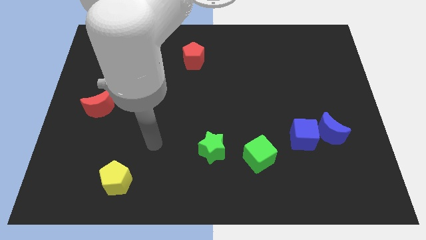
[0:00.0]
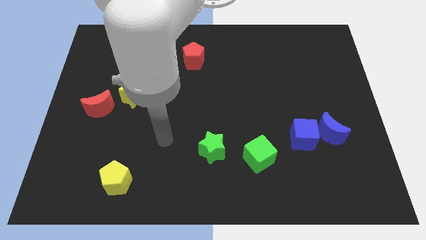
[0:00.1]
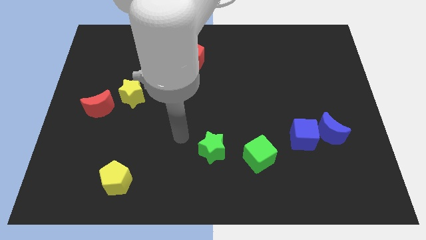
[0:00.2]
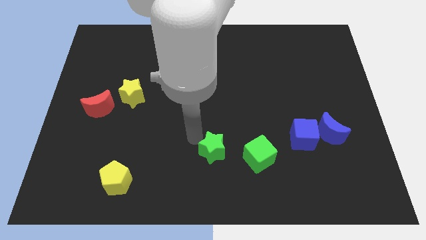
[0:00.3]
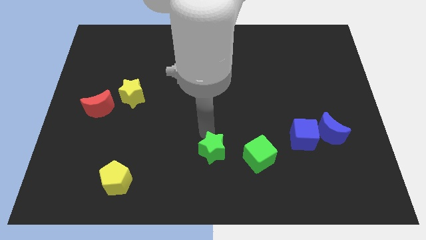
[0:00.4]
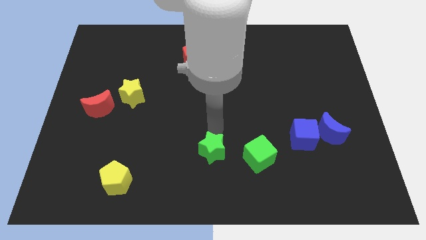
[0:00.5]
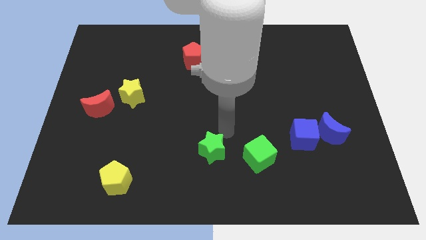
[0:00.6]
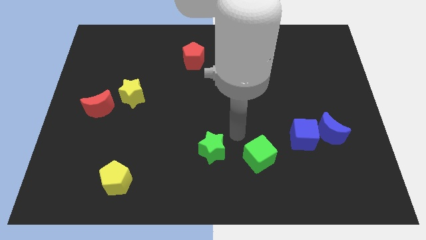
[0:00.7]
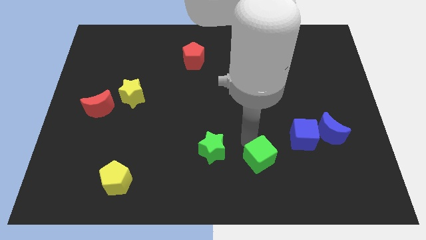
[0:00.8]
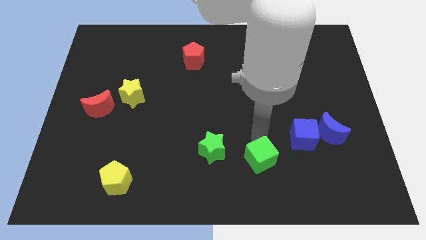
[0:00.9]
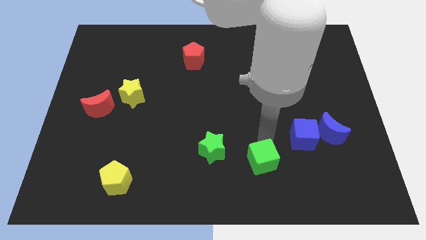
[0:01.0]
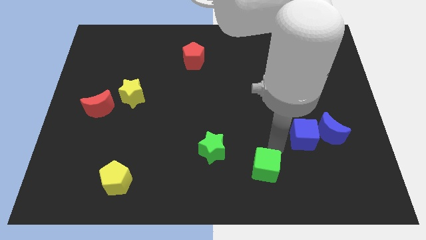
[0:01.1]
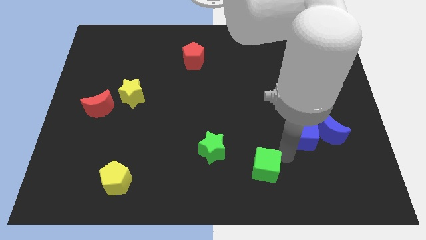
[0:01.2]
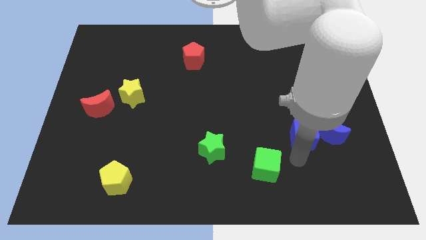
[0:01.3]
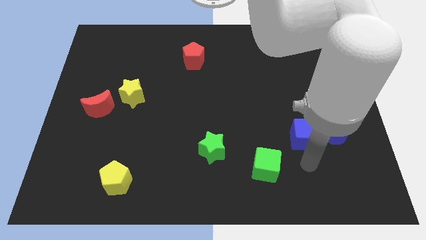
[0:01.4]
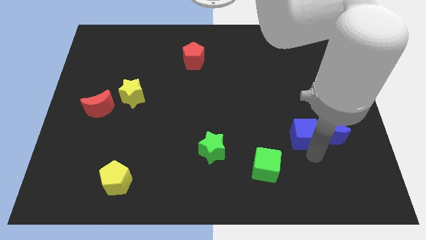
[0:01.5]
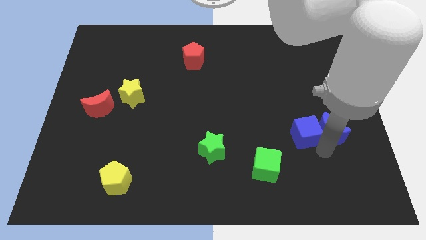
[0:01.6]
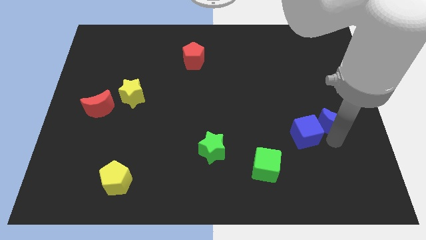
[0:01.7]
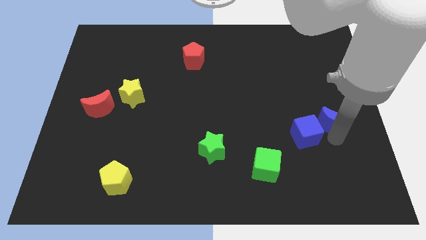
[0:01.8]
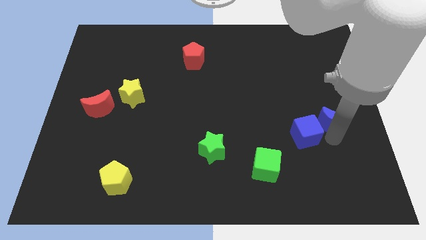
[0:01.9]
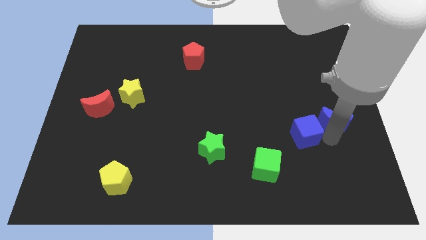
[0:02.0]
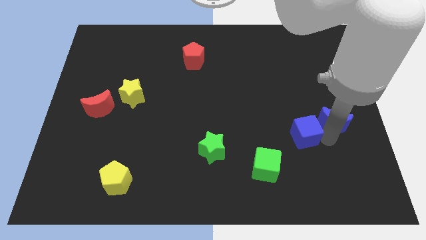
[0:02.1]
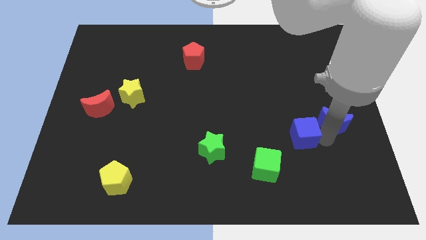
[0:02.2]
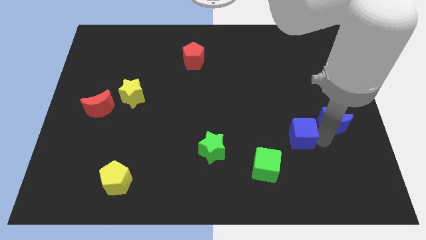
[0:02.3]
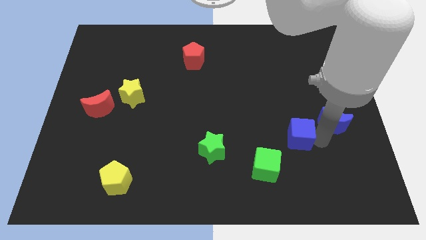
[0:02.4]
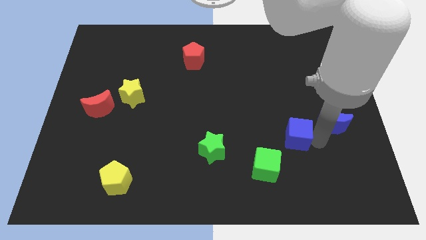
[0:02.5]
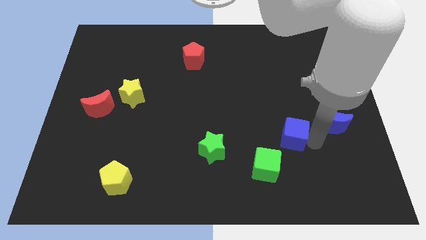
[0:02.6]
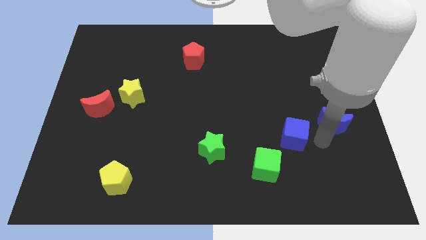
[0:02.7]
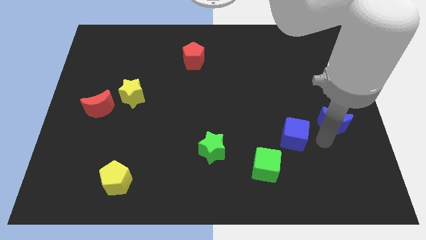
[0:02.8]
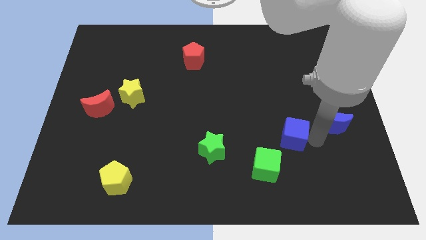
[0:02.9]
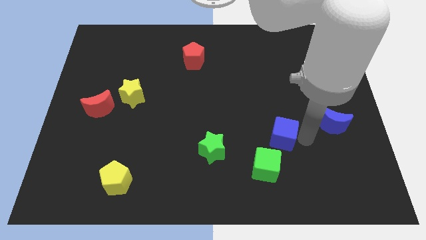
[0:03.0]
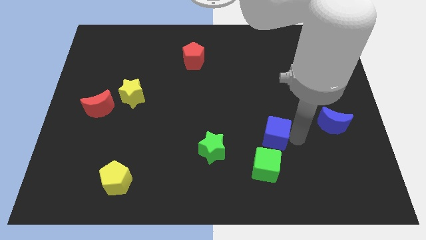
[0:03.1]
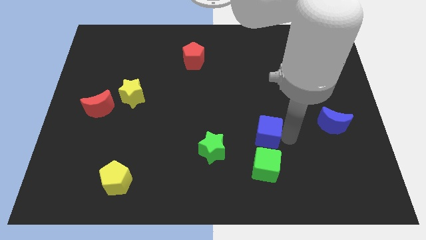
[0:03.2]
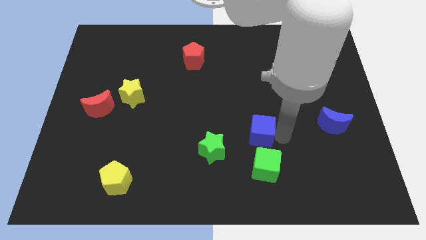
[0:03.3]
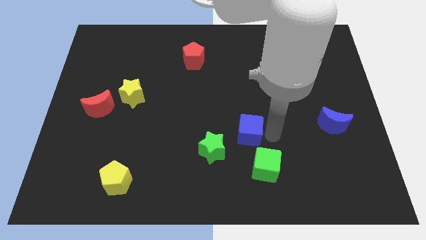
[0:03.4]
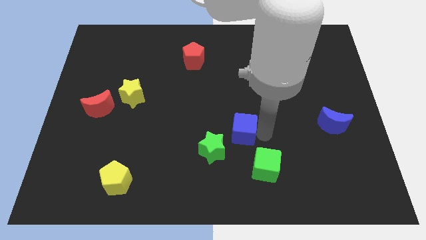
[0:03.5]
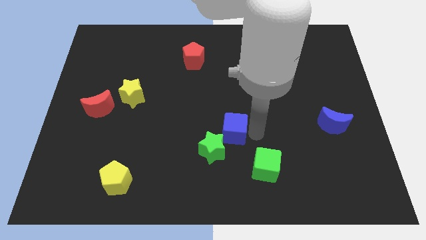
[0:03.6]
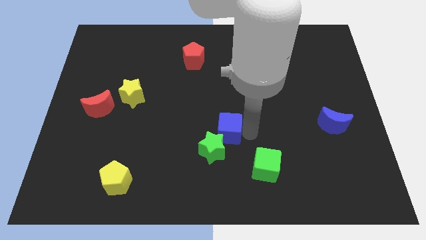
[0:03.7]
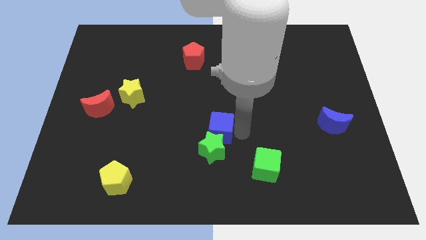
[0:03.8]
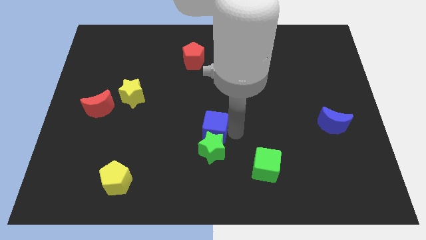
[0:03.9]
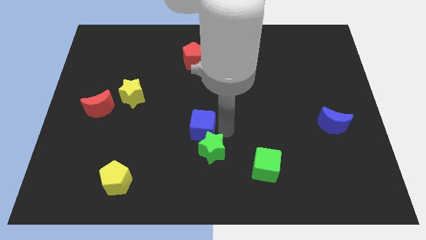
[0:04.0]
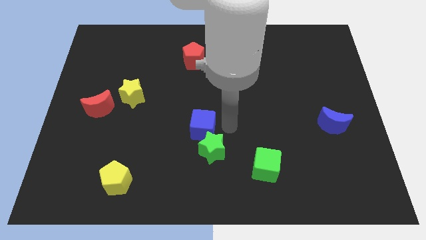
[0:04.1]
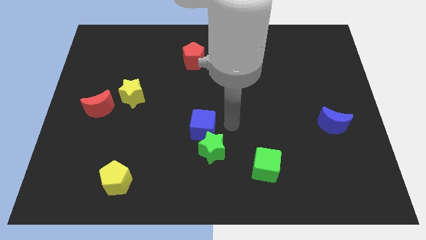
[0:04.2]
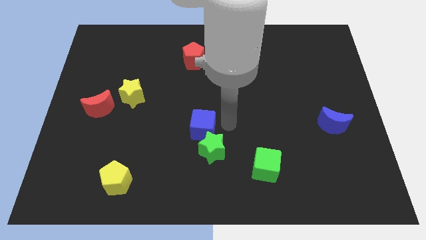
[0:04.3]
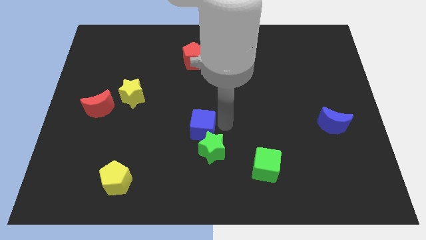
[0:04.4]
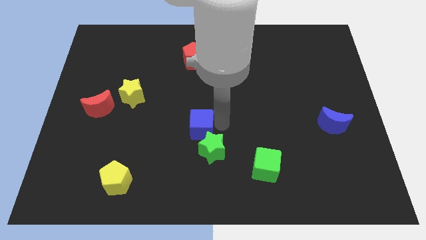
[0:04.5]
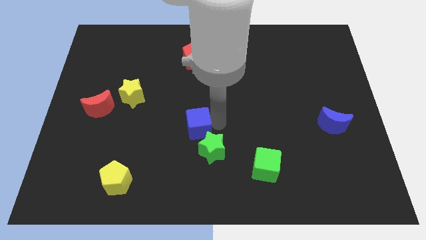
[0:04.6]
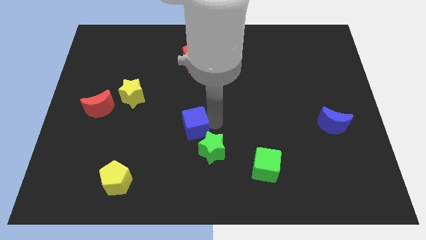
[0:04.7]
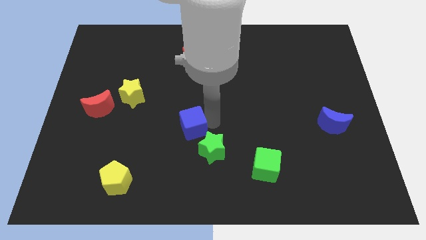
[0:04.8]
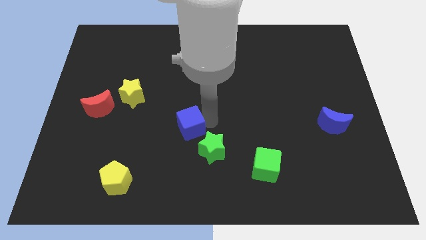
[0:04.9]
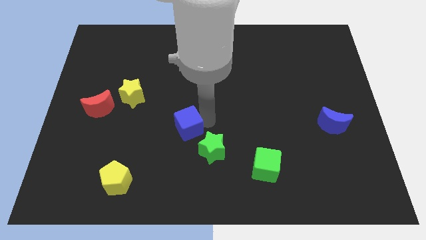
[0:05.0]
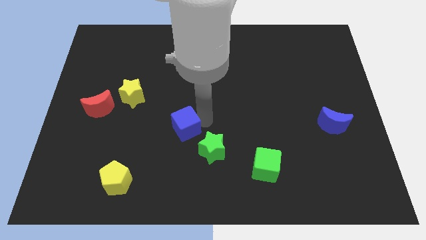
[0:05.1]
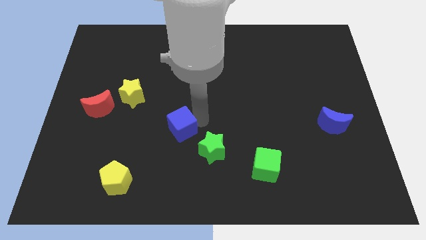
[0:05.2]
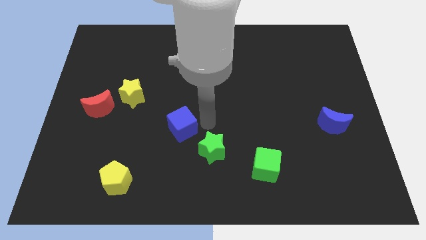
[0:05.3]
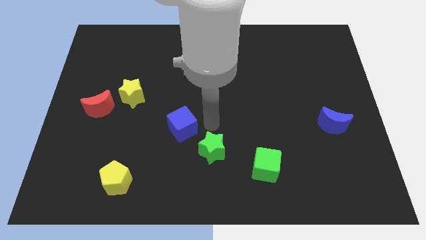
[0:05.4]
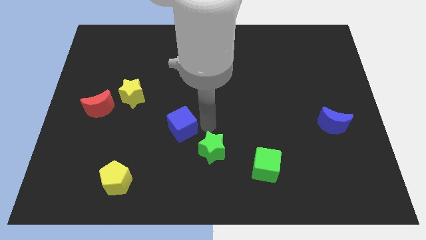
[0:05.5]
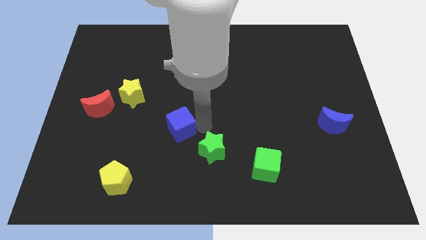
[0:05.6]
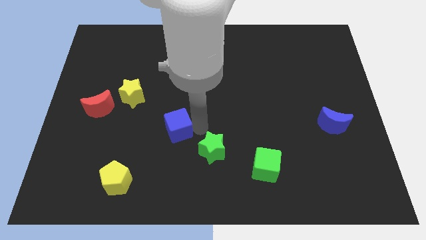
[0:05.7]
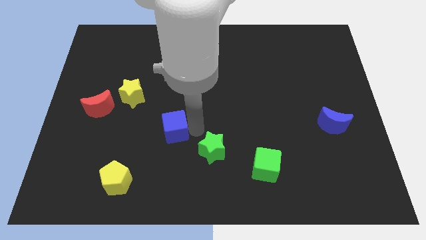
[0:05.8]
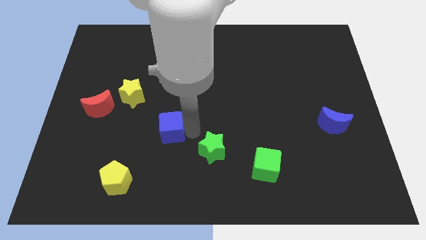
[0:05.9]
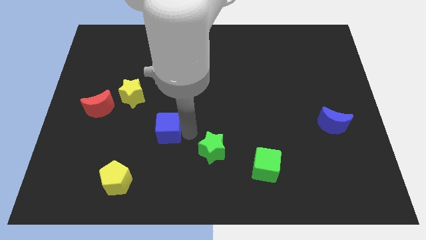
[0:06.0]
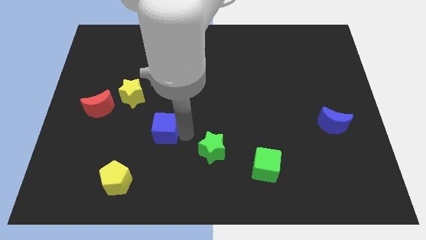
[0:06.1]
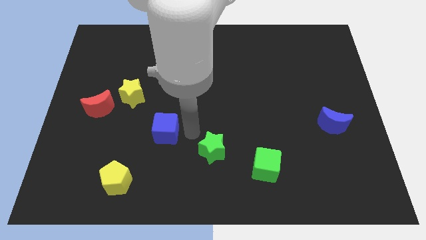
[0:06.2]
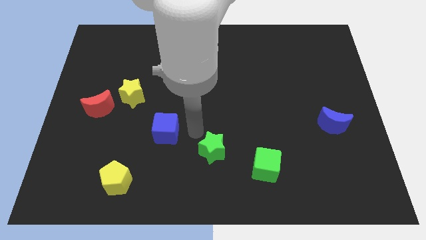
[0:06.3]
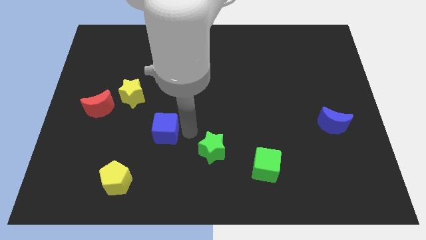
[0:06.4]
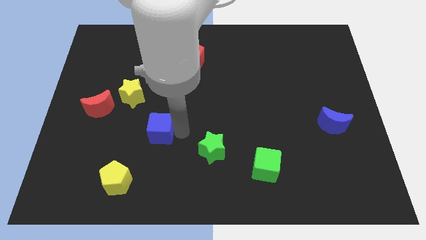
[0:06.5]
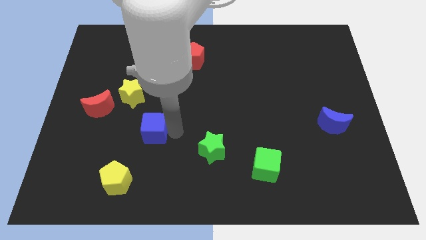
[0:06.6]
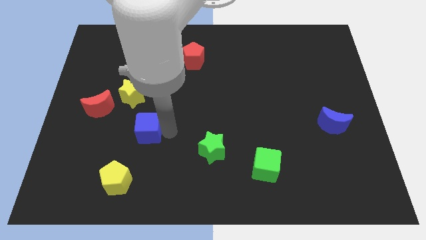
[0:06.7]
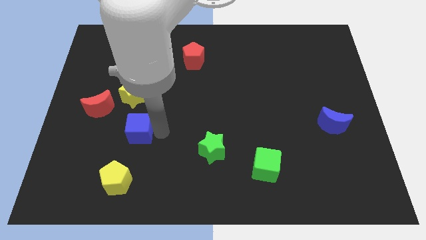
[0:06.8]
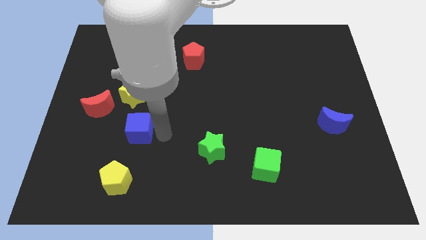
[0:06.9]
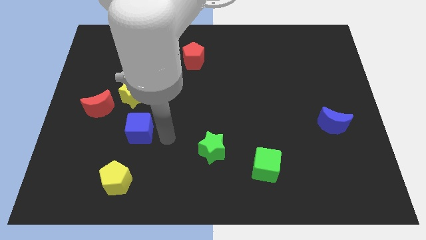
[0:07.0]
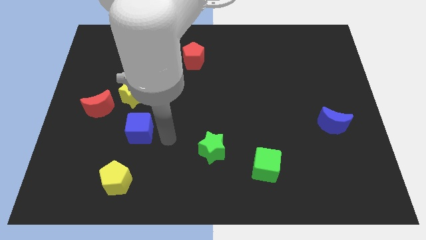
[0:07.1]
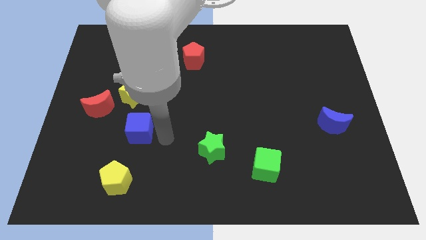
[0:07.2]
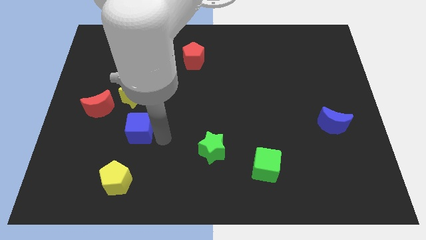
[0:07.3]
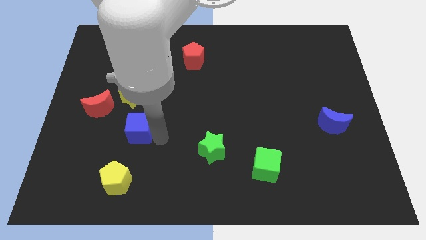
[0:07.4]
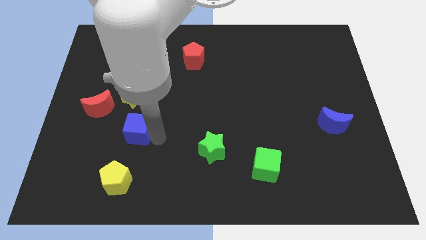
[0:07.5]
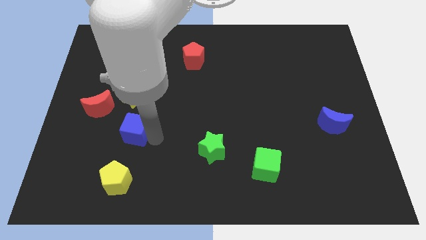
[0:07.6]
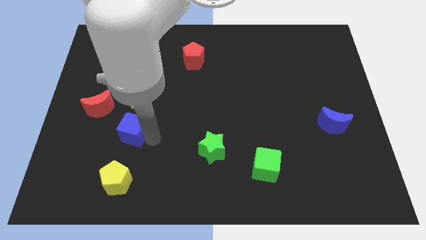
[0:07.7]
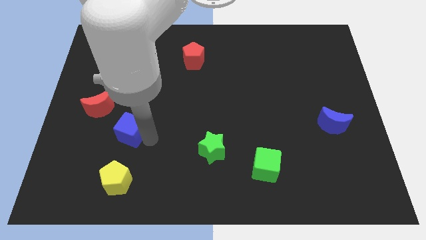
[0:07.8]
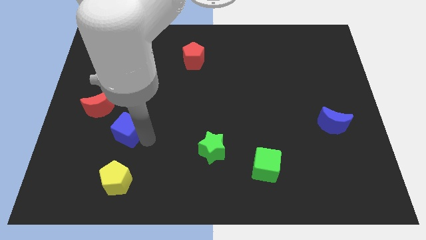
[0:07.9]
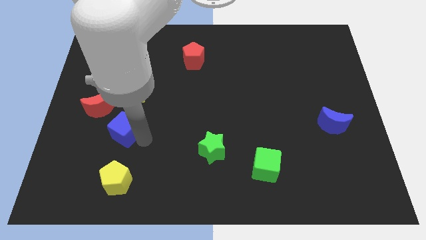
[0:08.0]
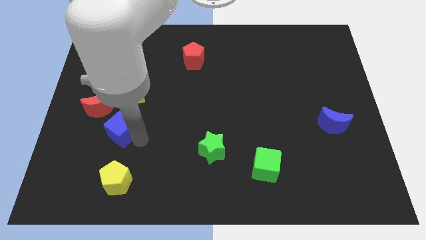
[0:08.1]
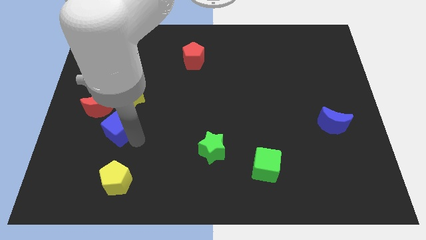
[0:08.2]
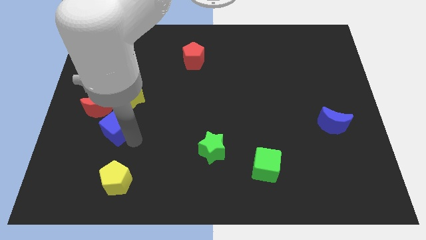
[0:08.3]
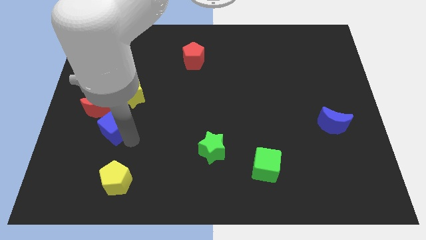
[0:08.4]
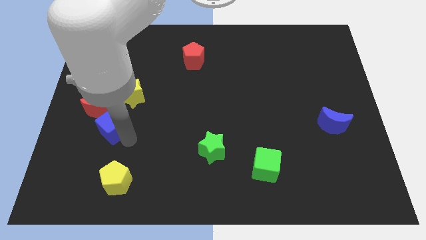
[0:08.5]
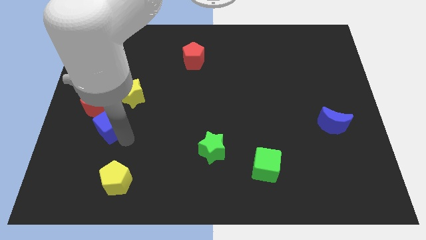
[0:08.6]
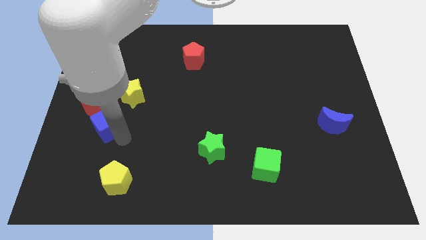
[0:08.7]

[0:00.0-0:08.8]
slide the blue cube close to the red moon
